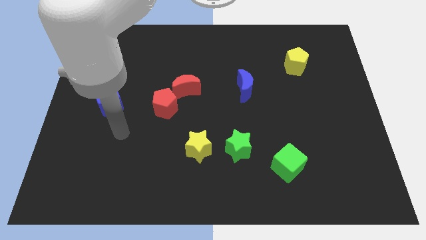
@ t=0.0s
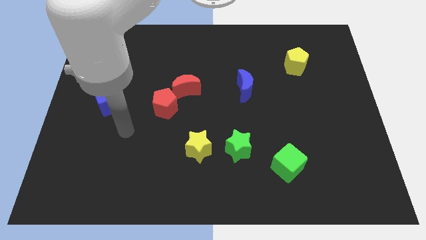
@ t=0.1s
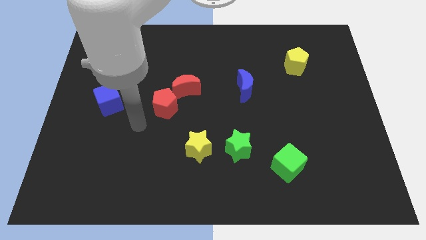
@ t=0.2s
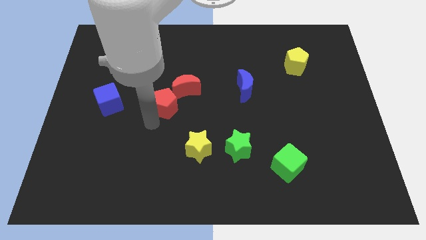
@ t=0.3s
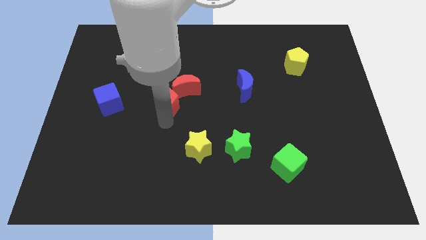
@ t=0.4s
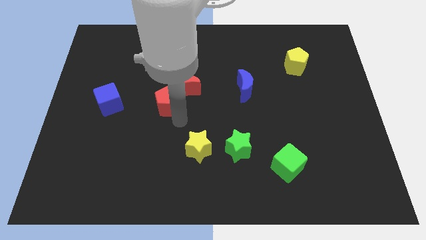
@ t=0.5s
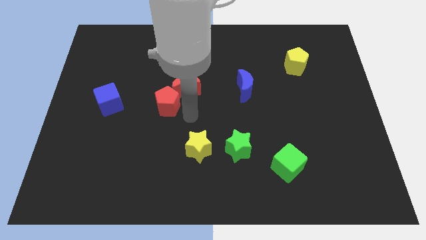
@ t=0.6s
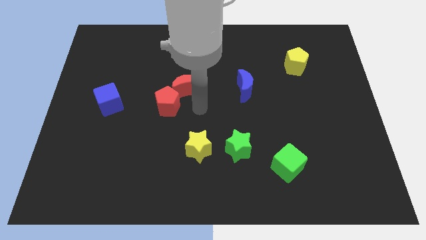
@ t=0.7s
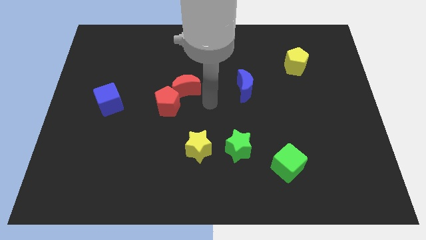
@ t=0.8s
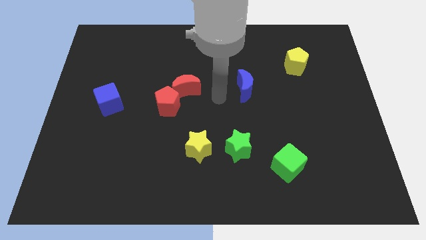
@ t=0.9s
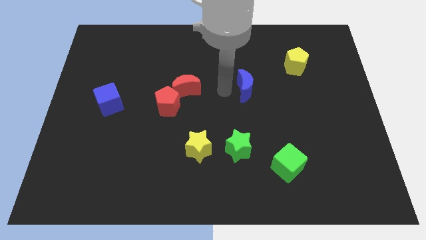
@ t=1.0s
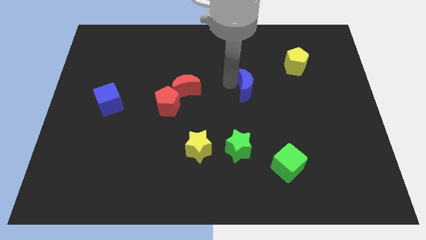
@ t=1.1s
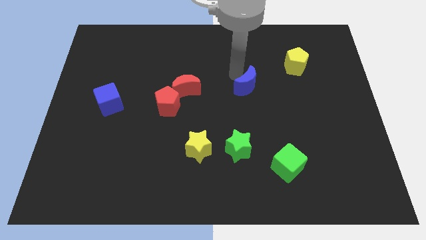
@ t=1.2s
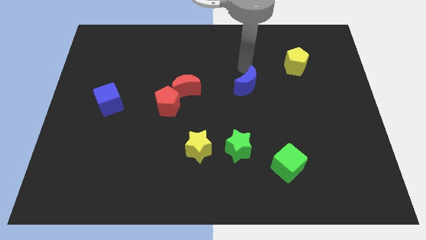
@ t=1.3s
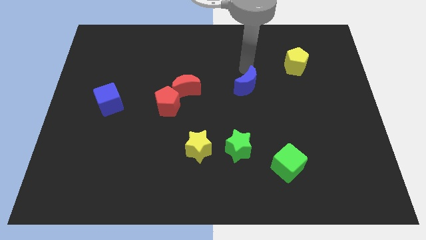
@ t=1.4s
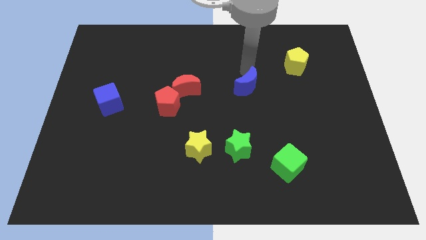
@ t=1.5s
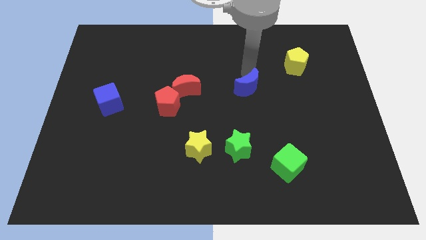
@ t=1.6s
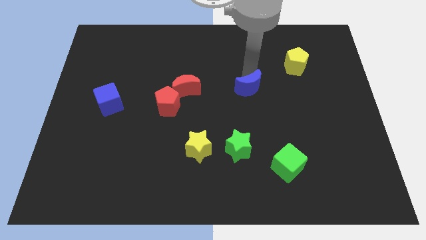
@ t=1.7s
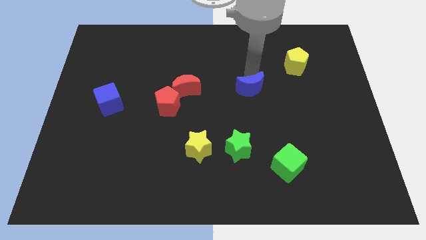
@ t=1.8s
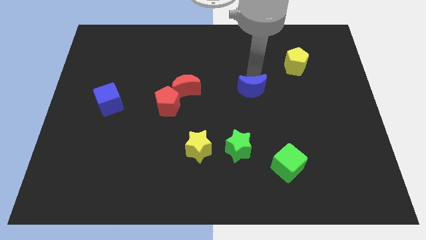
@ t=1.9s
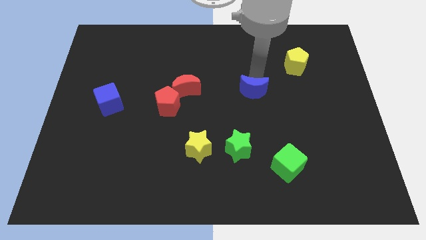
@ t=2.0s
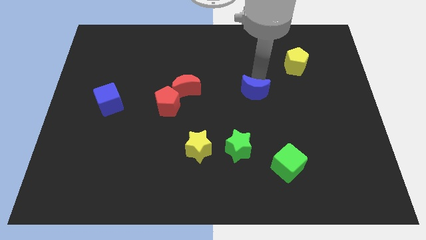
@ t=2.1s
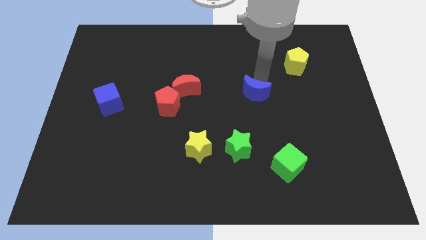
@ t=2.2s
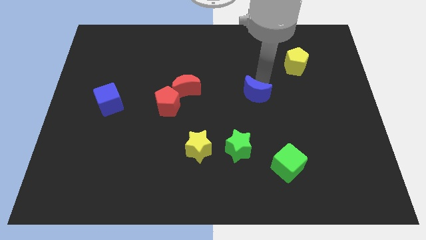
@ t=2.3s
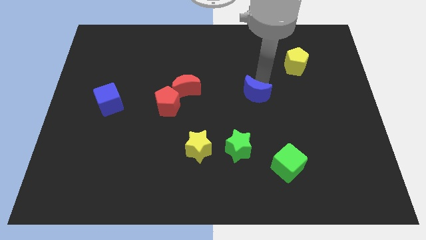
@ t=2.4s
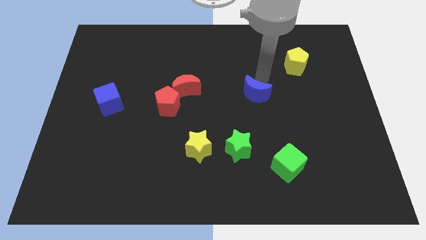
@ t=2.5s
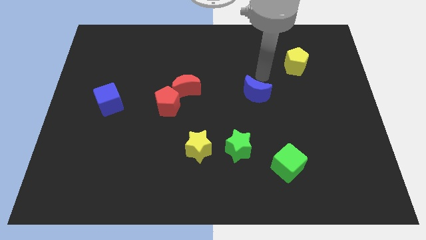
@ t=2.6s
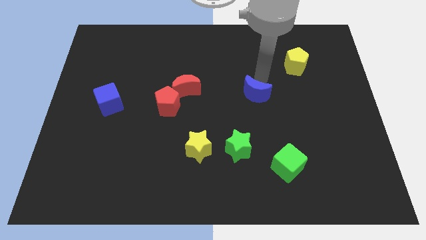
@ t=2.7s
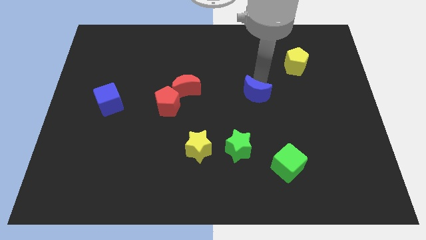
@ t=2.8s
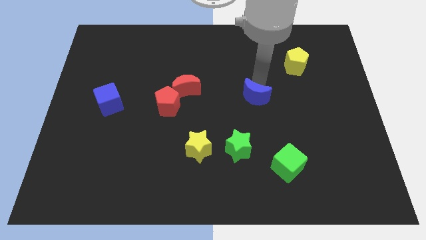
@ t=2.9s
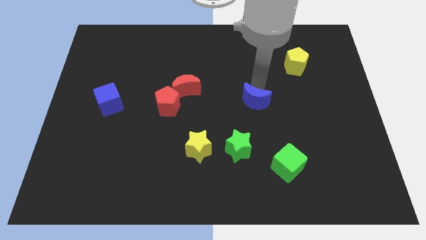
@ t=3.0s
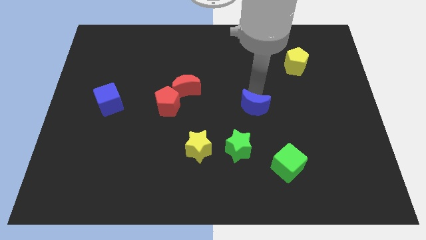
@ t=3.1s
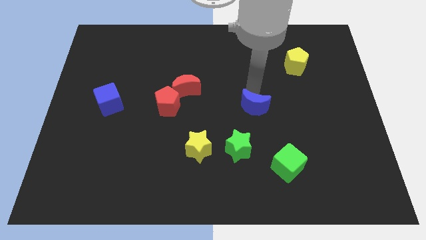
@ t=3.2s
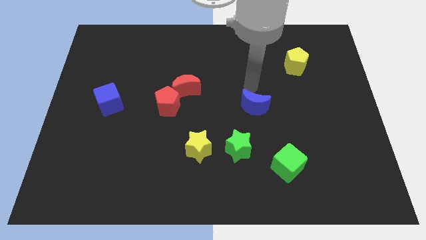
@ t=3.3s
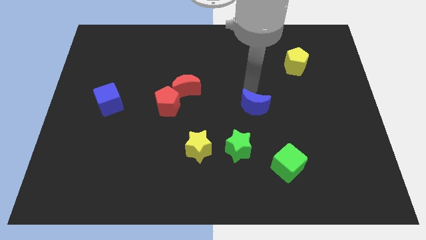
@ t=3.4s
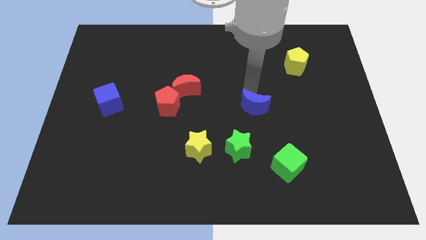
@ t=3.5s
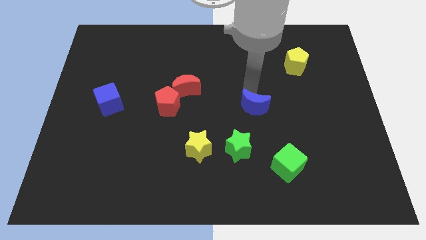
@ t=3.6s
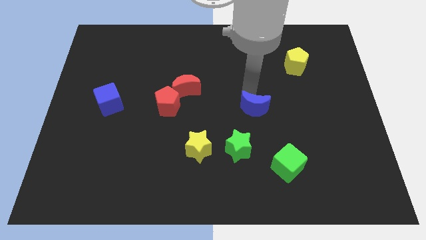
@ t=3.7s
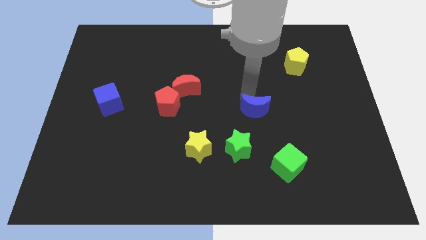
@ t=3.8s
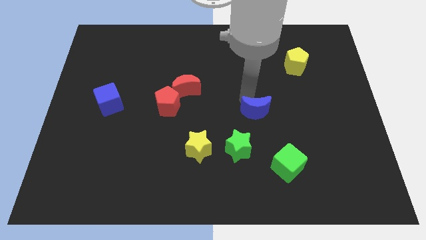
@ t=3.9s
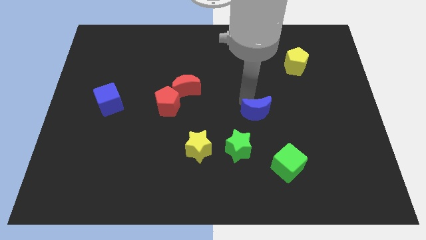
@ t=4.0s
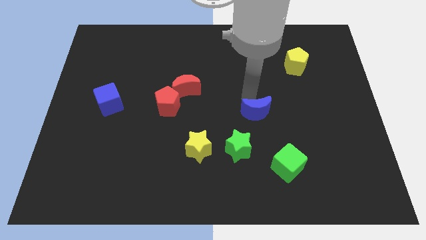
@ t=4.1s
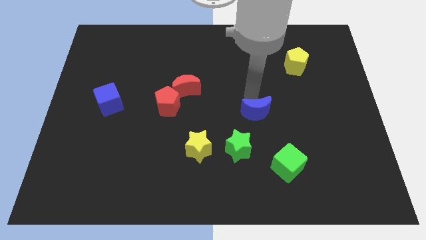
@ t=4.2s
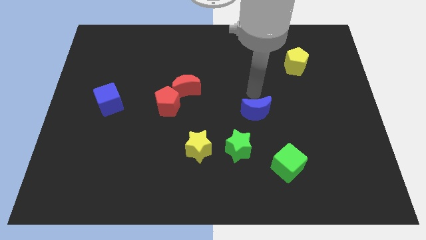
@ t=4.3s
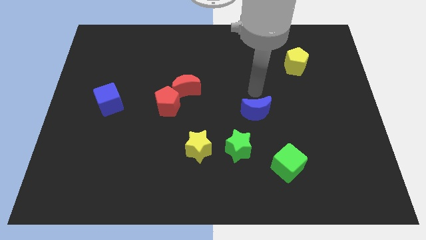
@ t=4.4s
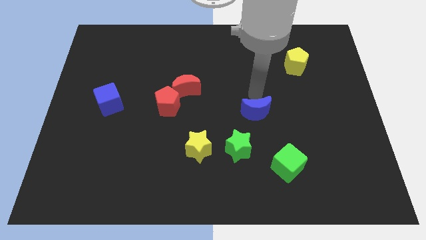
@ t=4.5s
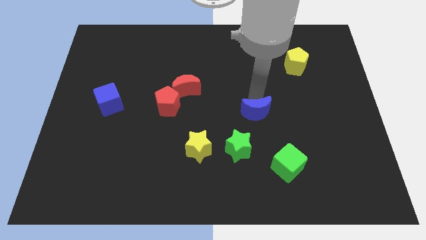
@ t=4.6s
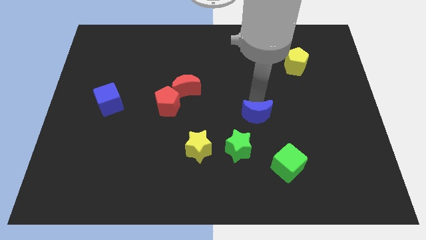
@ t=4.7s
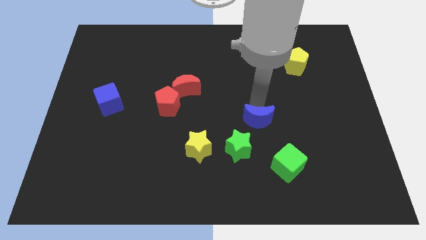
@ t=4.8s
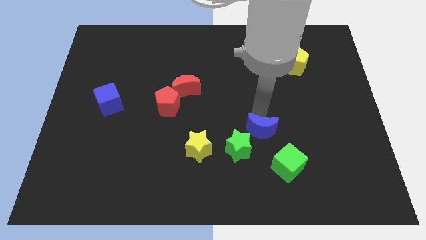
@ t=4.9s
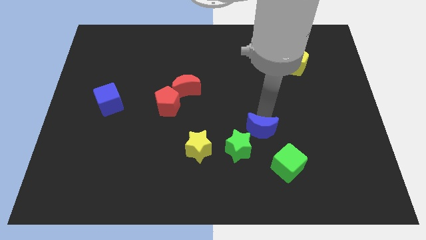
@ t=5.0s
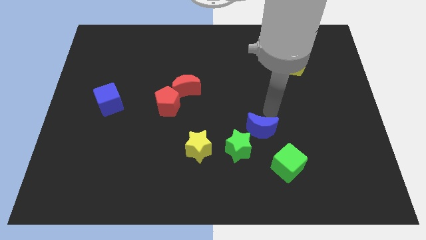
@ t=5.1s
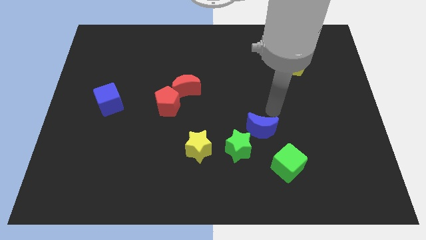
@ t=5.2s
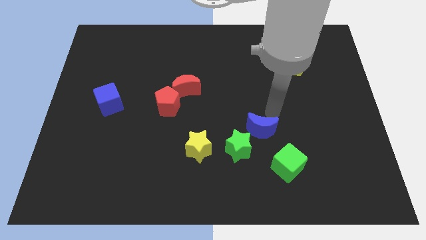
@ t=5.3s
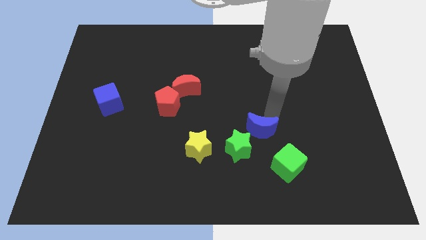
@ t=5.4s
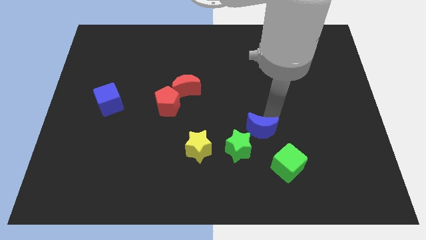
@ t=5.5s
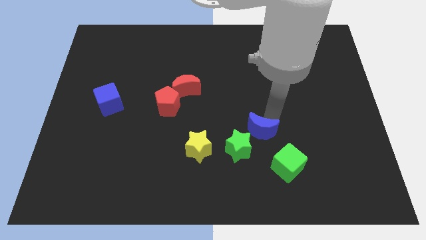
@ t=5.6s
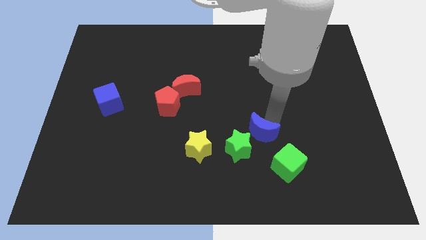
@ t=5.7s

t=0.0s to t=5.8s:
put the blue moon right of the yellow star

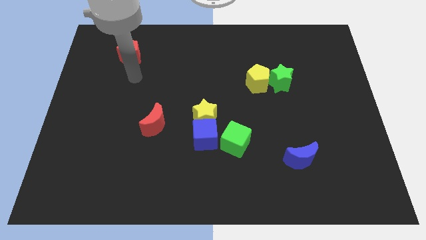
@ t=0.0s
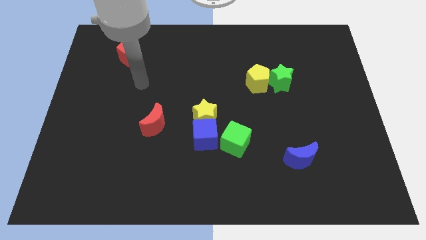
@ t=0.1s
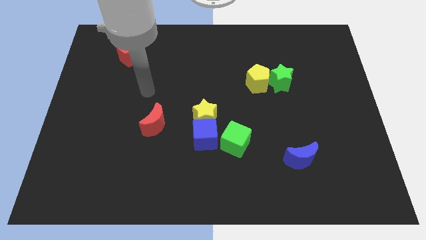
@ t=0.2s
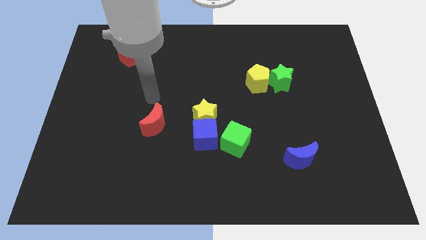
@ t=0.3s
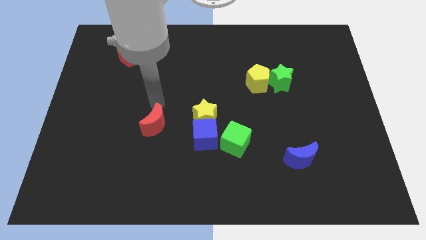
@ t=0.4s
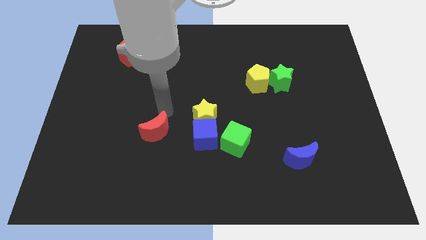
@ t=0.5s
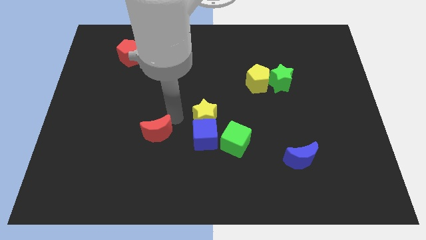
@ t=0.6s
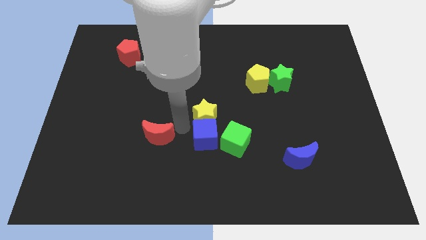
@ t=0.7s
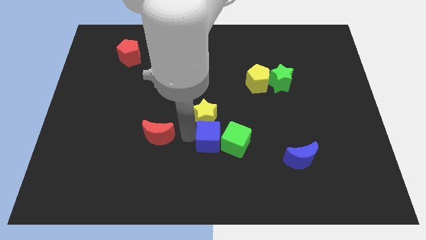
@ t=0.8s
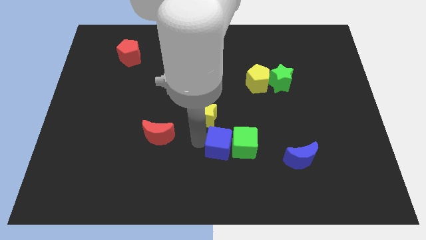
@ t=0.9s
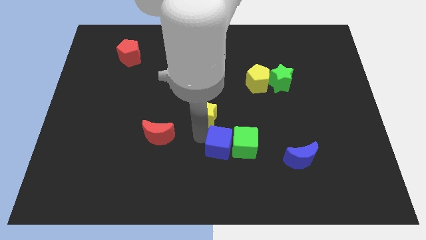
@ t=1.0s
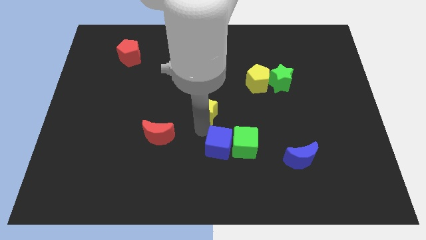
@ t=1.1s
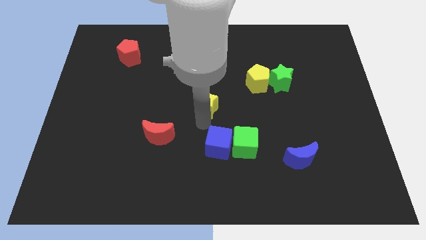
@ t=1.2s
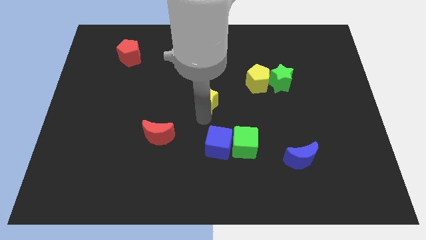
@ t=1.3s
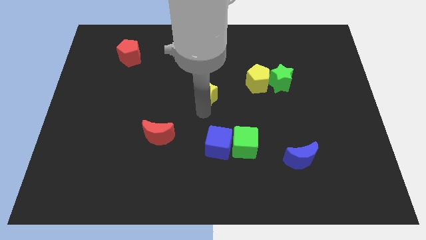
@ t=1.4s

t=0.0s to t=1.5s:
move the yellow star left of the yellow pentagon
